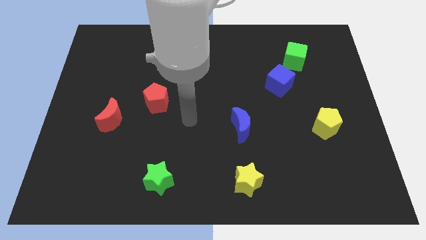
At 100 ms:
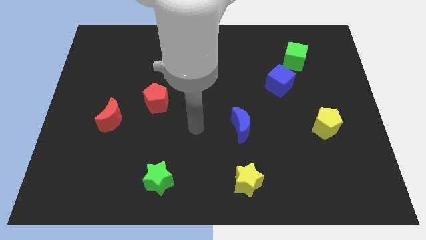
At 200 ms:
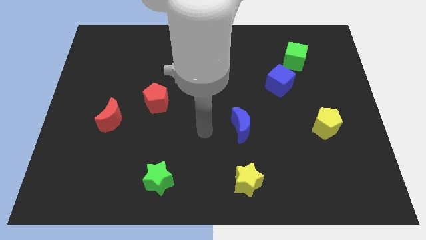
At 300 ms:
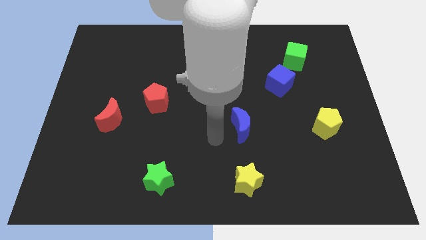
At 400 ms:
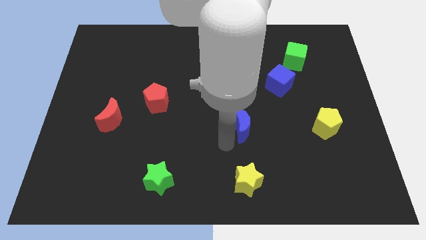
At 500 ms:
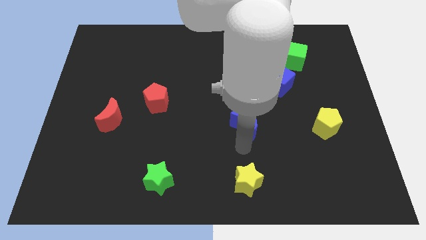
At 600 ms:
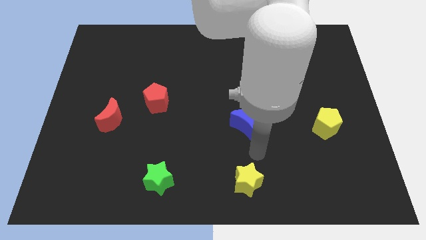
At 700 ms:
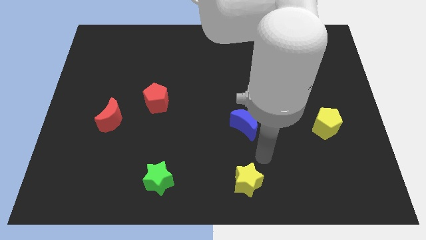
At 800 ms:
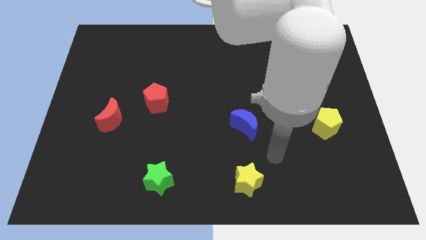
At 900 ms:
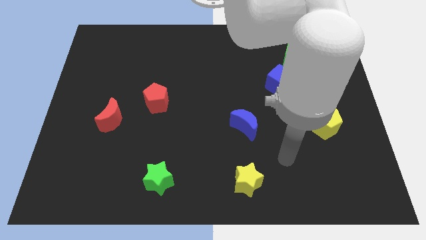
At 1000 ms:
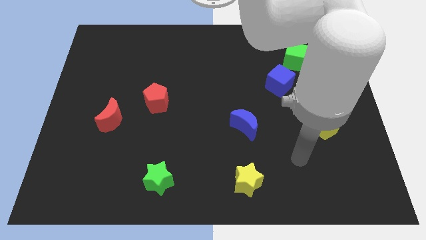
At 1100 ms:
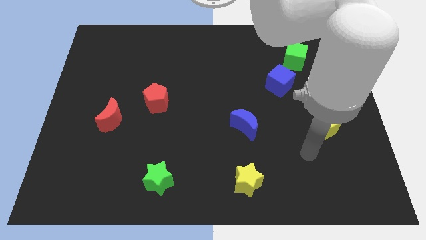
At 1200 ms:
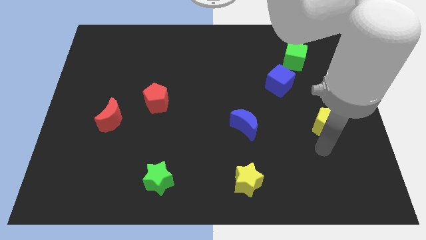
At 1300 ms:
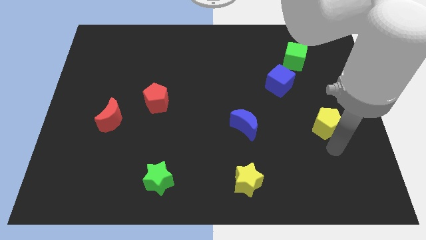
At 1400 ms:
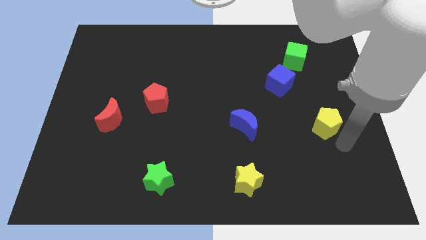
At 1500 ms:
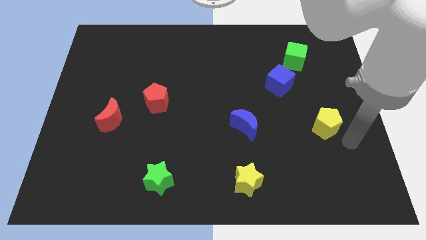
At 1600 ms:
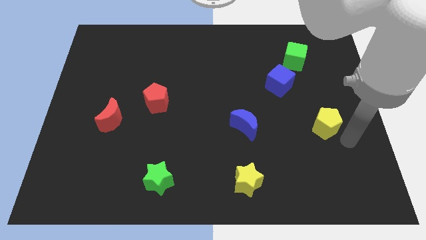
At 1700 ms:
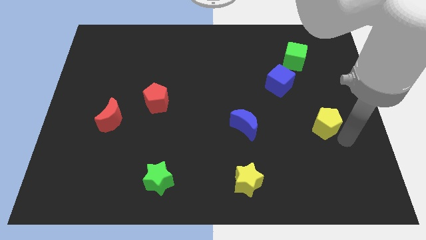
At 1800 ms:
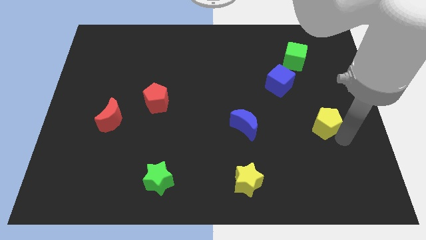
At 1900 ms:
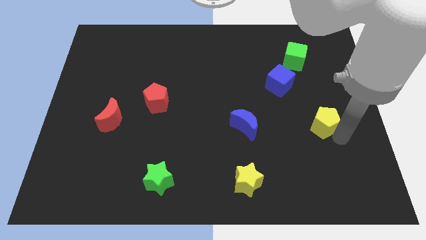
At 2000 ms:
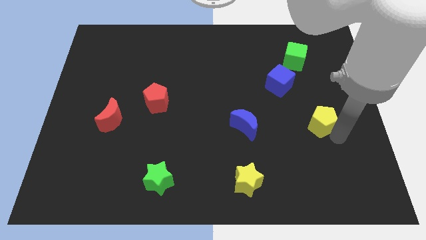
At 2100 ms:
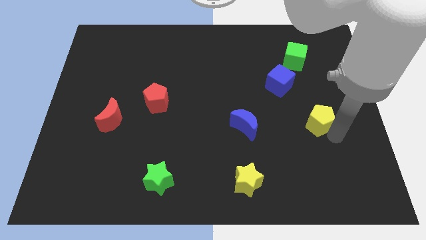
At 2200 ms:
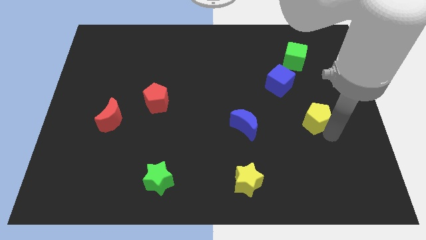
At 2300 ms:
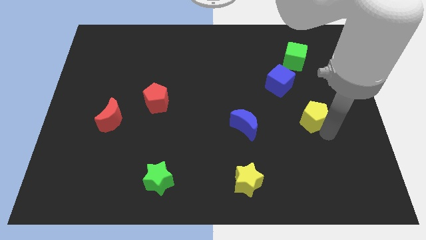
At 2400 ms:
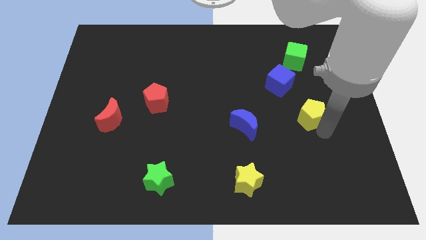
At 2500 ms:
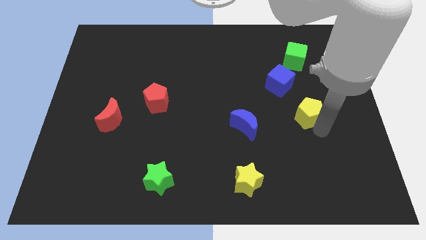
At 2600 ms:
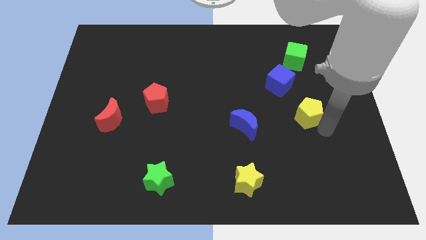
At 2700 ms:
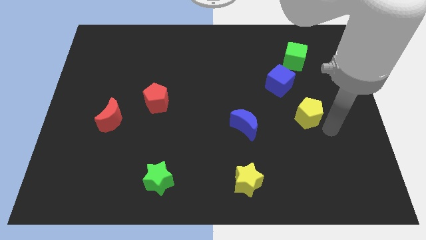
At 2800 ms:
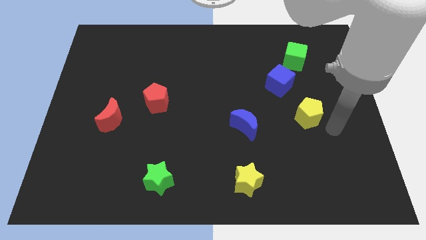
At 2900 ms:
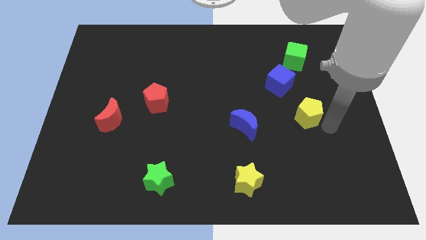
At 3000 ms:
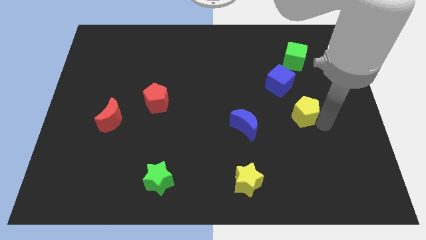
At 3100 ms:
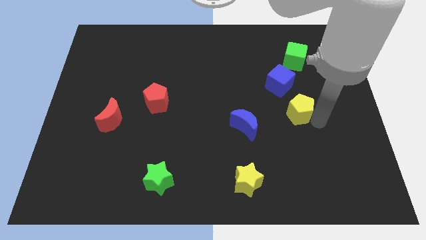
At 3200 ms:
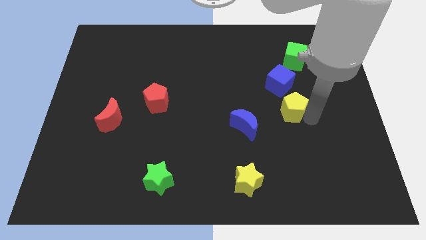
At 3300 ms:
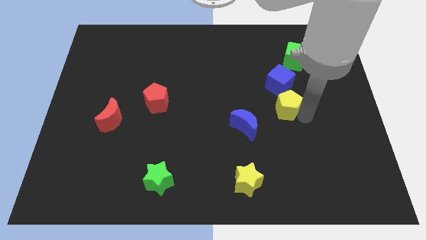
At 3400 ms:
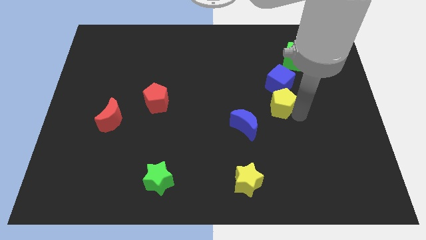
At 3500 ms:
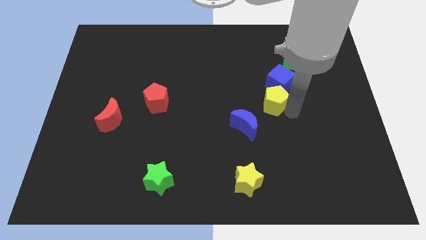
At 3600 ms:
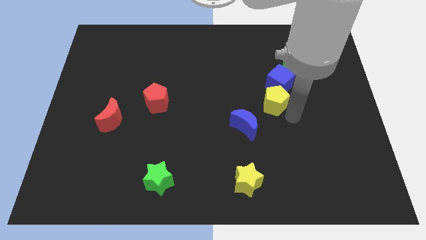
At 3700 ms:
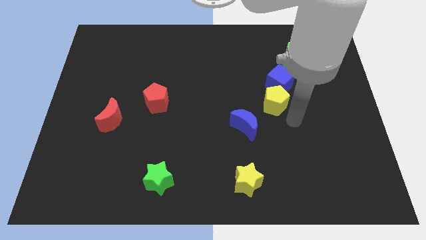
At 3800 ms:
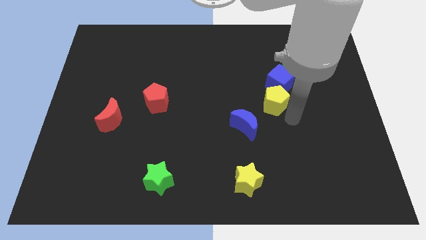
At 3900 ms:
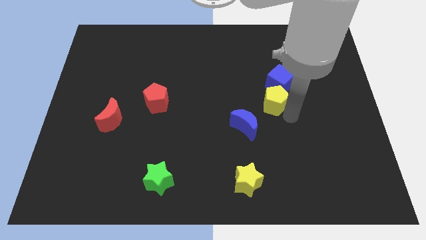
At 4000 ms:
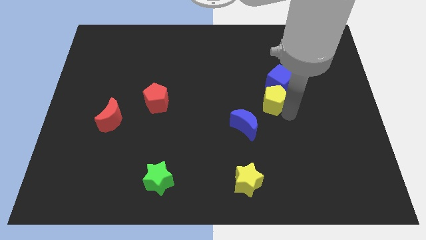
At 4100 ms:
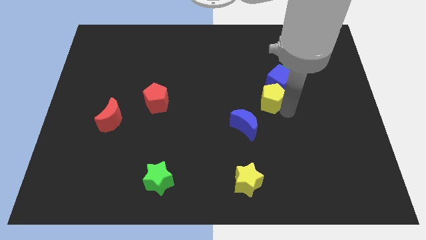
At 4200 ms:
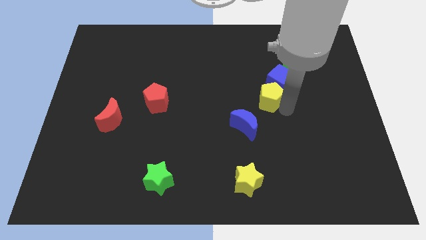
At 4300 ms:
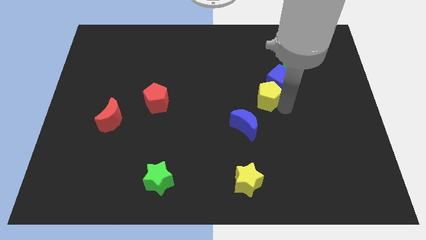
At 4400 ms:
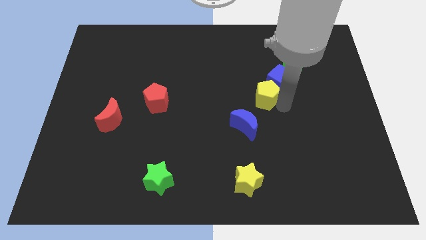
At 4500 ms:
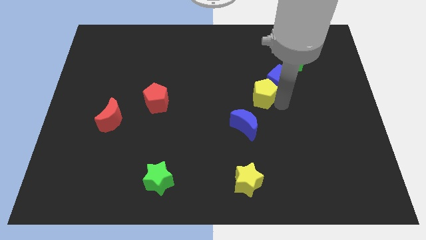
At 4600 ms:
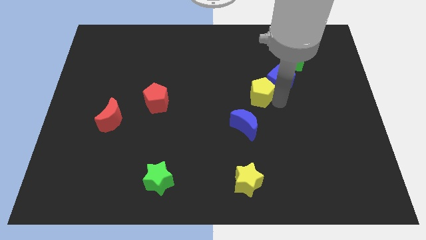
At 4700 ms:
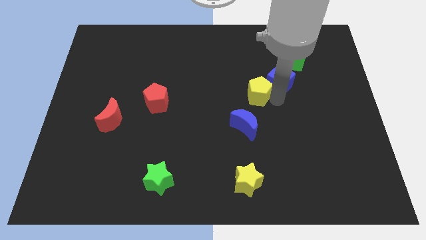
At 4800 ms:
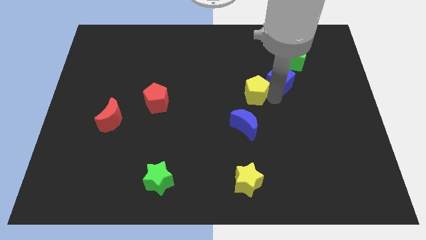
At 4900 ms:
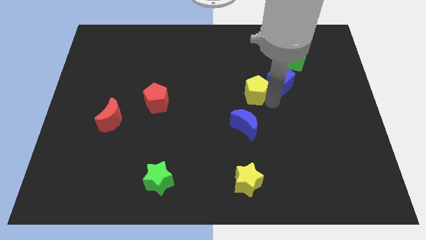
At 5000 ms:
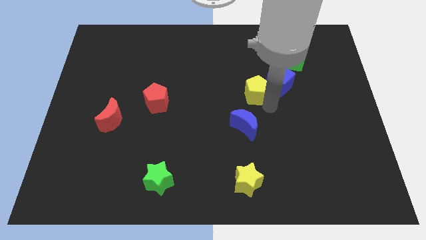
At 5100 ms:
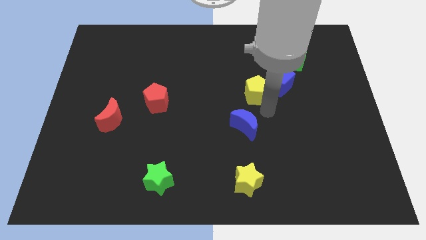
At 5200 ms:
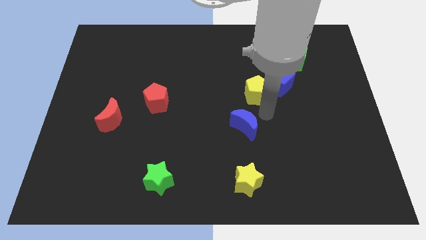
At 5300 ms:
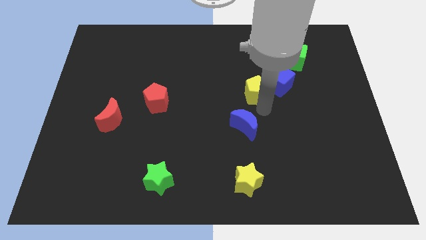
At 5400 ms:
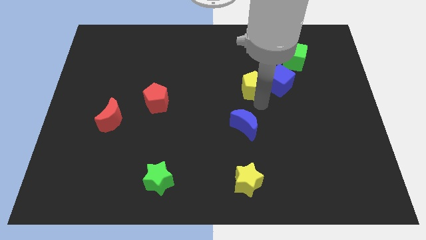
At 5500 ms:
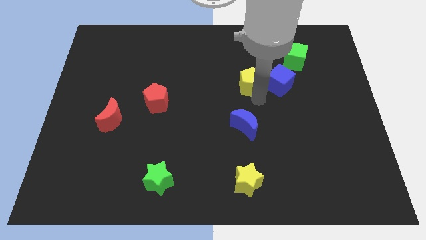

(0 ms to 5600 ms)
push the yellow pentagon upwards and left

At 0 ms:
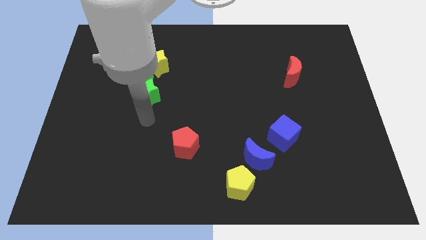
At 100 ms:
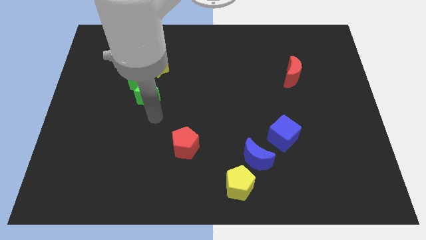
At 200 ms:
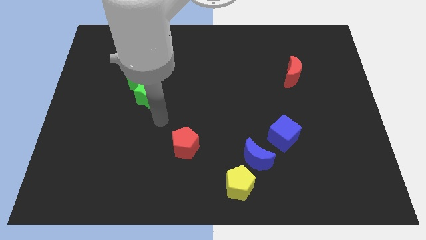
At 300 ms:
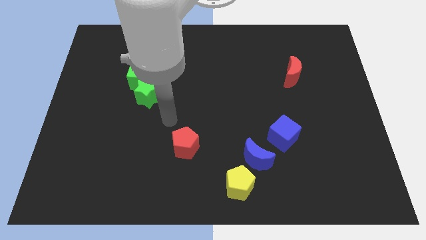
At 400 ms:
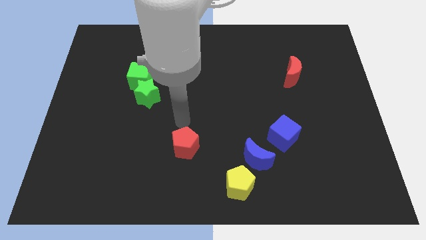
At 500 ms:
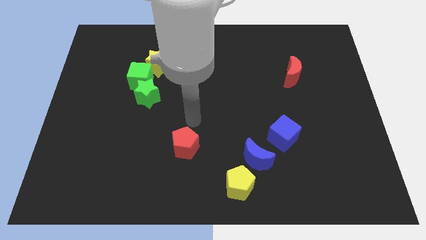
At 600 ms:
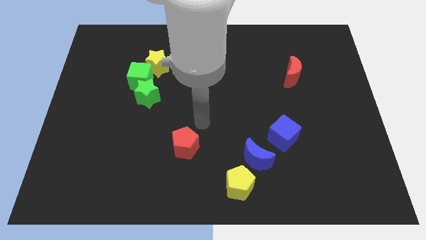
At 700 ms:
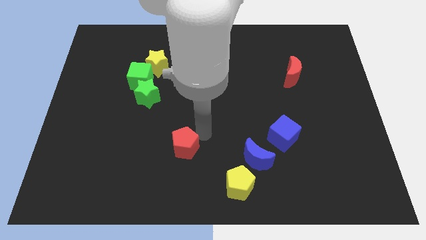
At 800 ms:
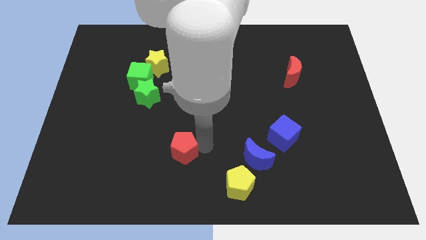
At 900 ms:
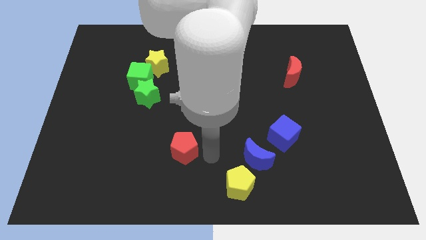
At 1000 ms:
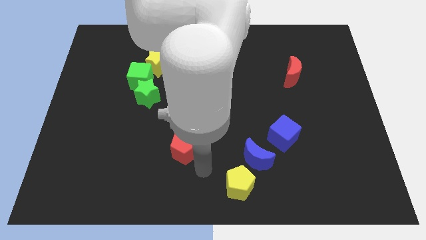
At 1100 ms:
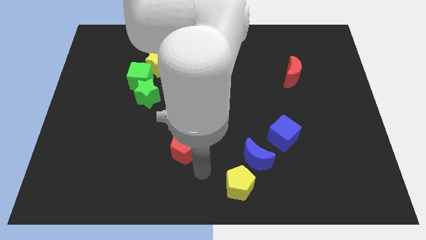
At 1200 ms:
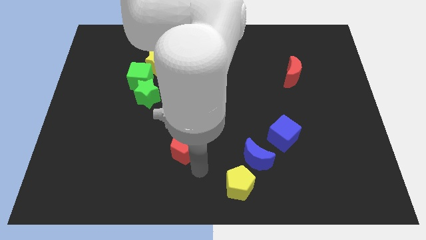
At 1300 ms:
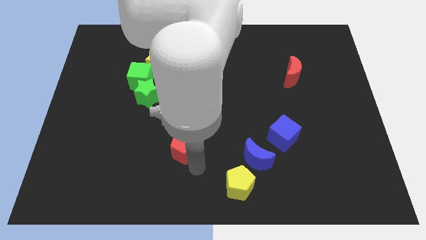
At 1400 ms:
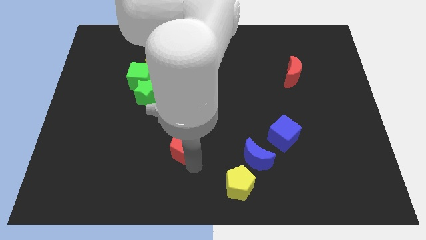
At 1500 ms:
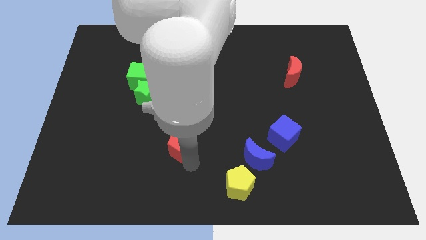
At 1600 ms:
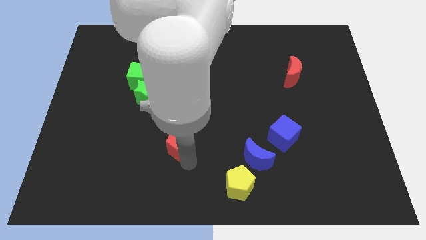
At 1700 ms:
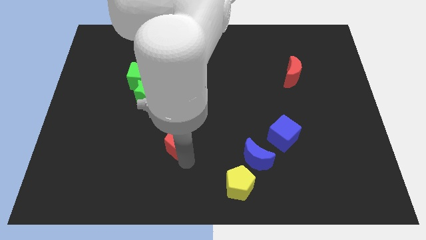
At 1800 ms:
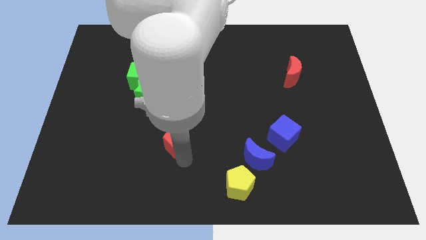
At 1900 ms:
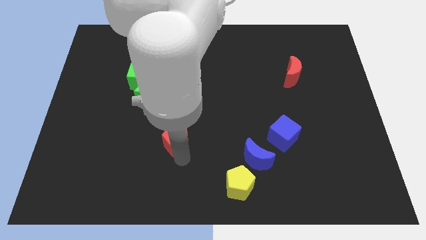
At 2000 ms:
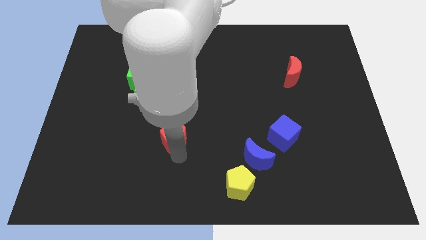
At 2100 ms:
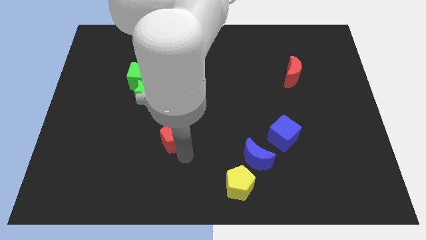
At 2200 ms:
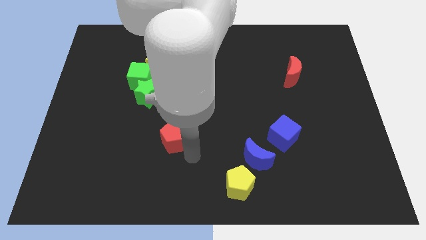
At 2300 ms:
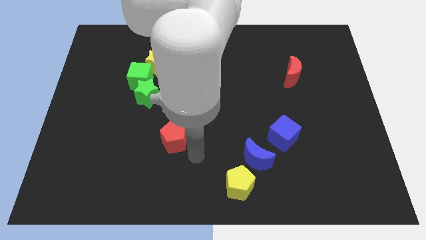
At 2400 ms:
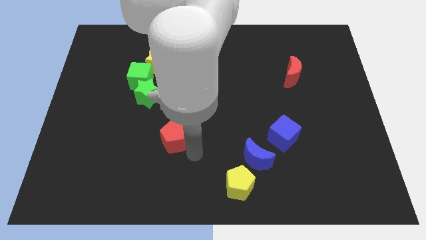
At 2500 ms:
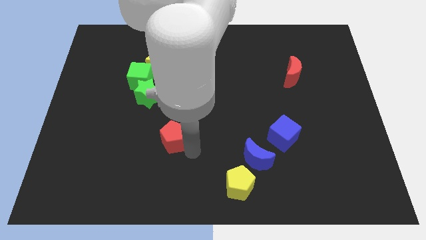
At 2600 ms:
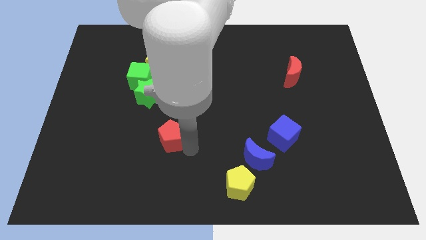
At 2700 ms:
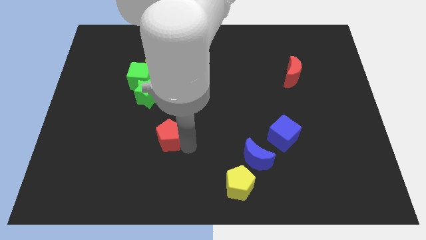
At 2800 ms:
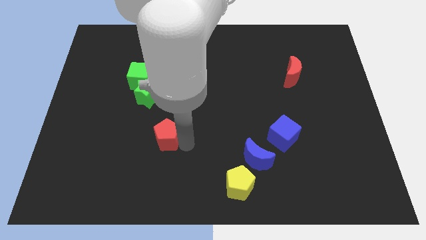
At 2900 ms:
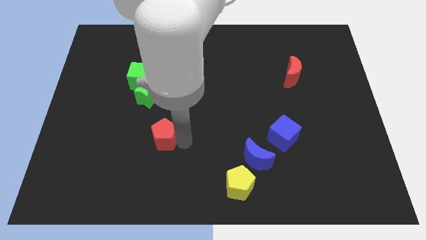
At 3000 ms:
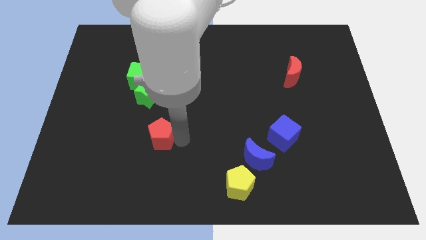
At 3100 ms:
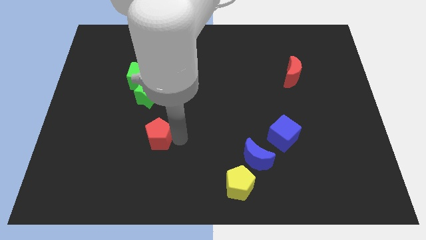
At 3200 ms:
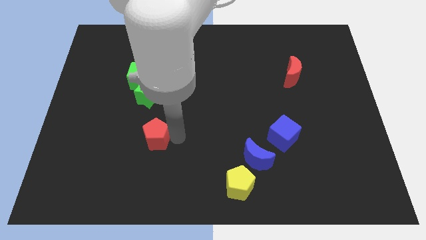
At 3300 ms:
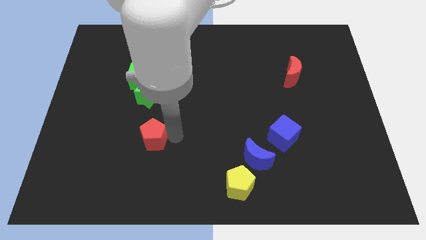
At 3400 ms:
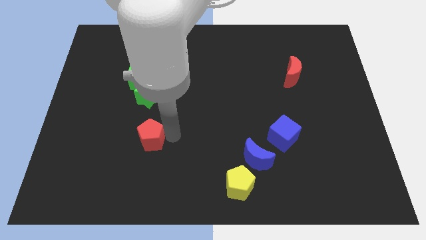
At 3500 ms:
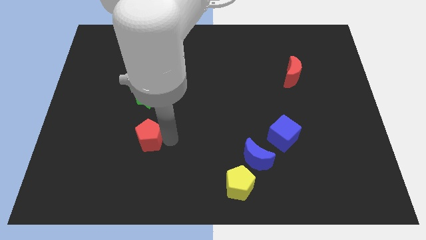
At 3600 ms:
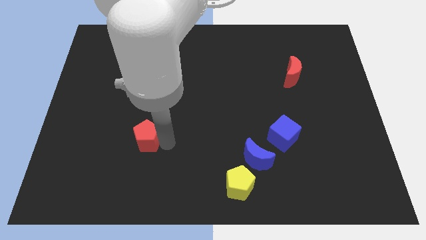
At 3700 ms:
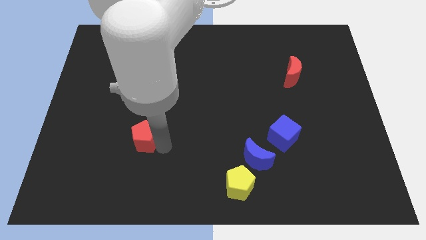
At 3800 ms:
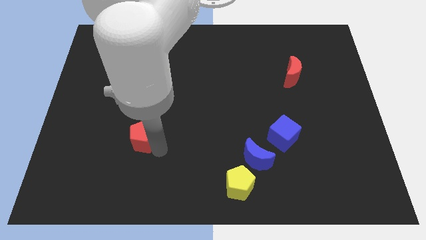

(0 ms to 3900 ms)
push the red pentagon up and then left a bit
